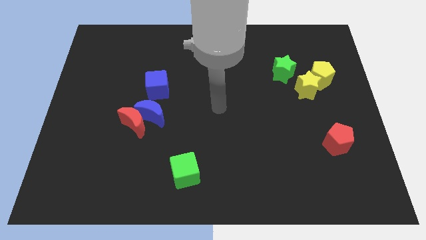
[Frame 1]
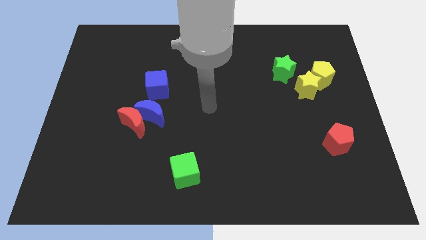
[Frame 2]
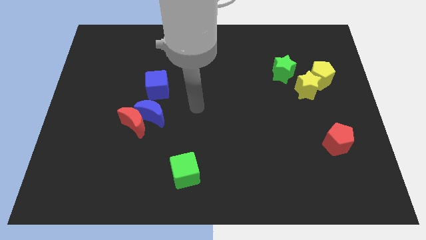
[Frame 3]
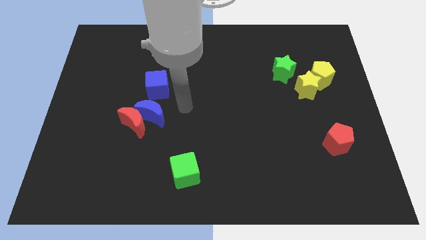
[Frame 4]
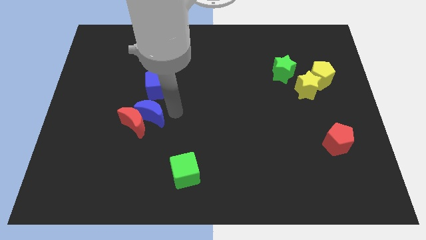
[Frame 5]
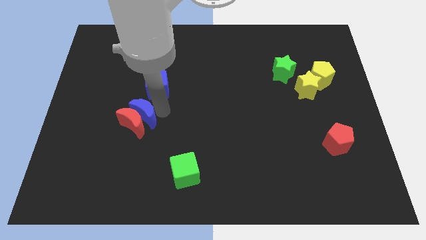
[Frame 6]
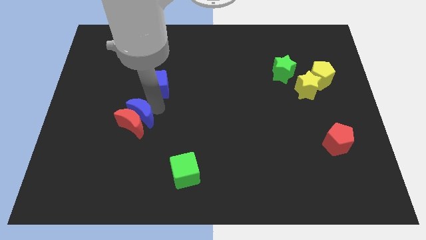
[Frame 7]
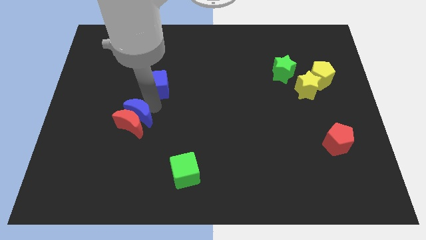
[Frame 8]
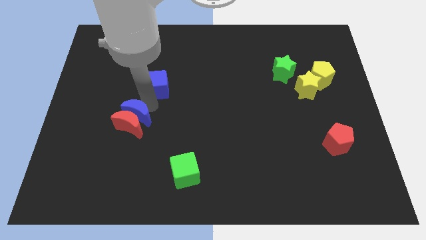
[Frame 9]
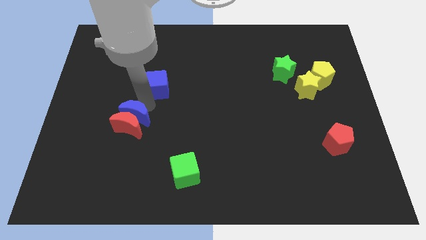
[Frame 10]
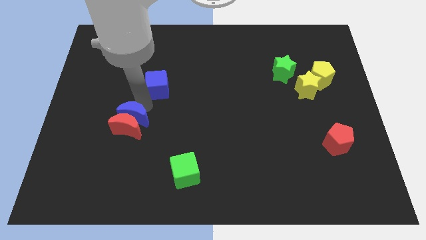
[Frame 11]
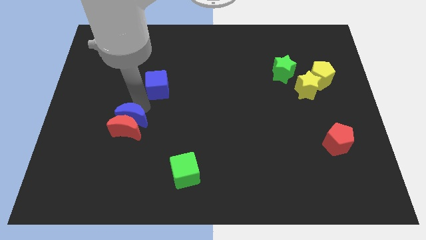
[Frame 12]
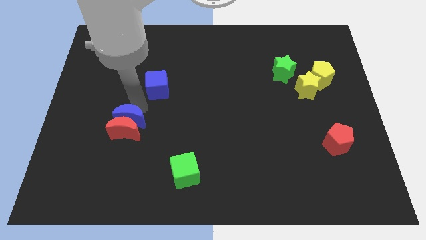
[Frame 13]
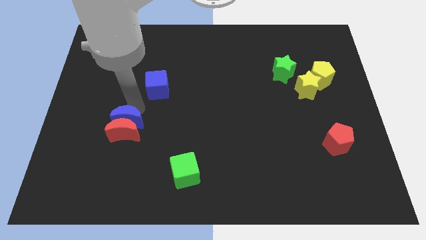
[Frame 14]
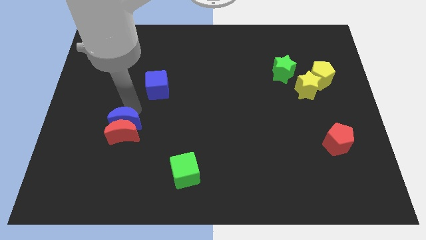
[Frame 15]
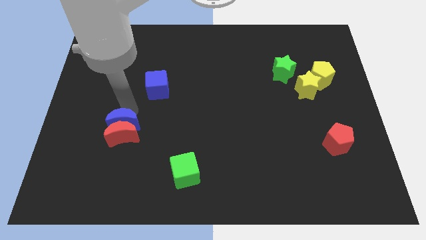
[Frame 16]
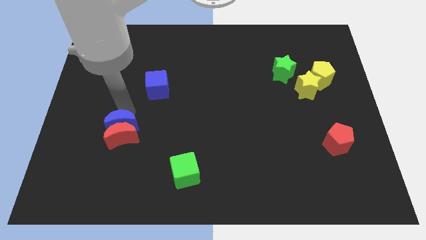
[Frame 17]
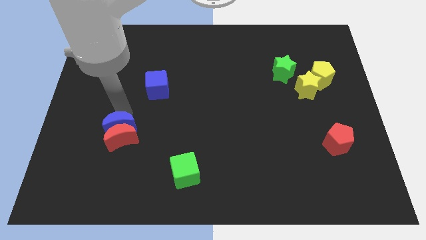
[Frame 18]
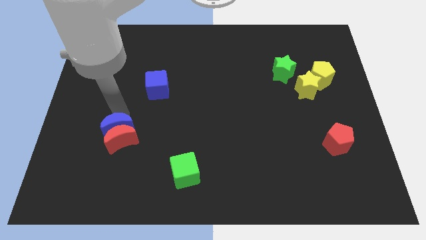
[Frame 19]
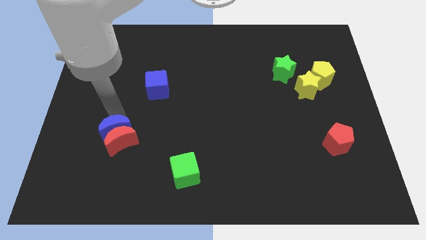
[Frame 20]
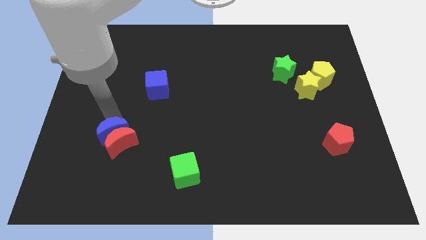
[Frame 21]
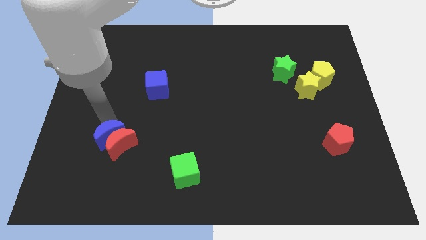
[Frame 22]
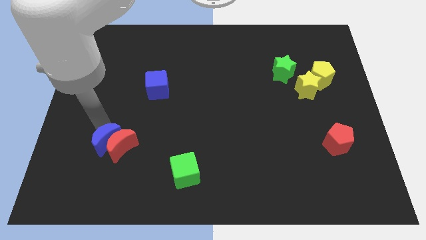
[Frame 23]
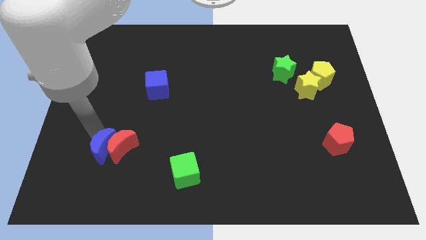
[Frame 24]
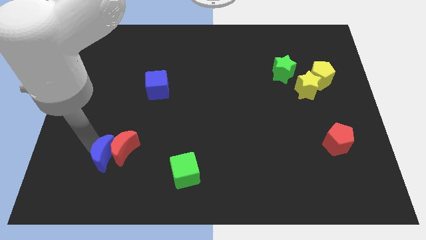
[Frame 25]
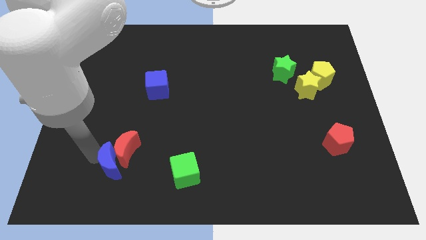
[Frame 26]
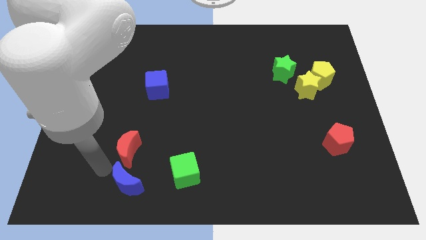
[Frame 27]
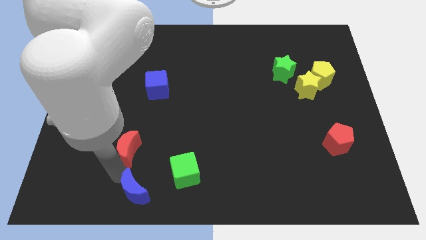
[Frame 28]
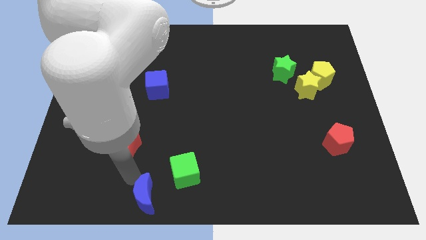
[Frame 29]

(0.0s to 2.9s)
move the red moon away from the blue moon

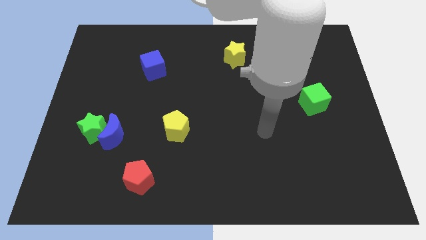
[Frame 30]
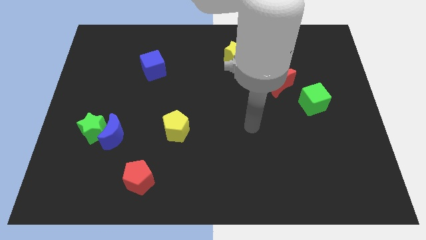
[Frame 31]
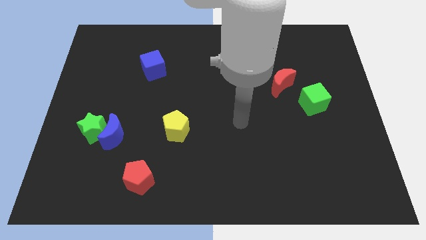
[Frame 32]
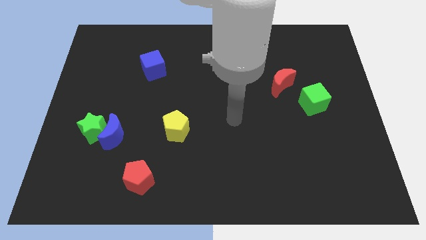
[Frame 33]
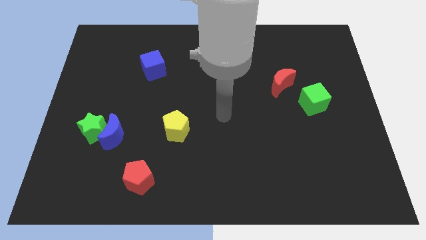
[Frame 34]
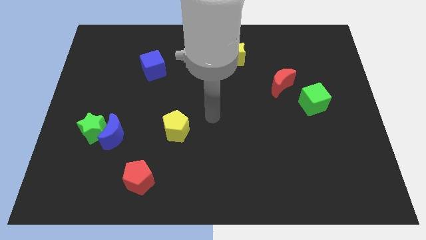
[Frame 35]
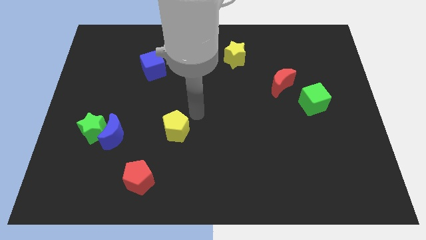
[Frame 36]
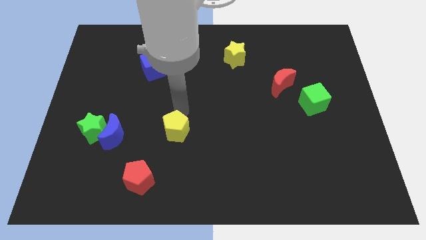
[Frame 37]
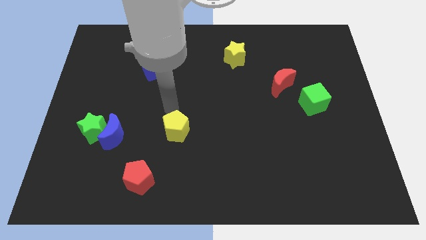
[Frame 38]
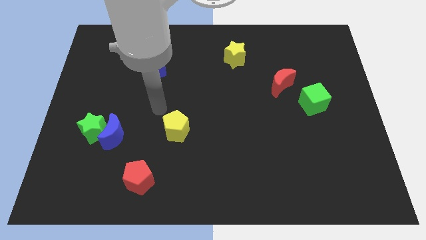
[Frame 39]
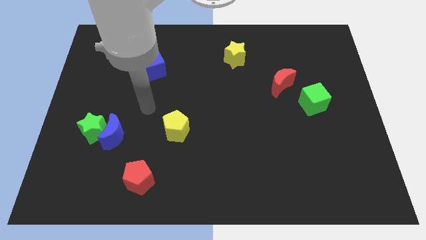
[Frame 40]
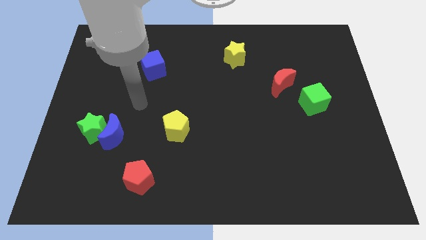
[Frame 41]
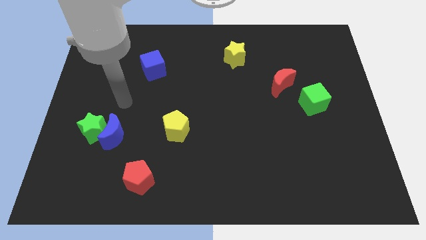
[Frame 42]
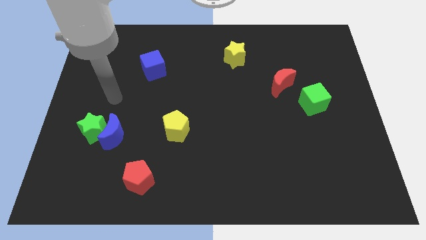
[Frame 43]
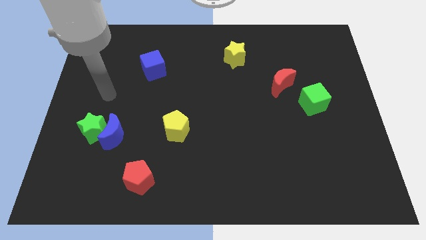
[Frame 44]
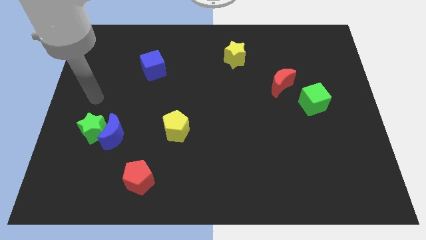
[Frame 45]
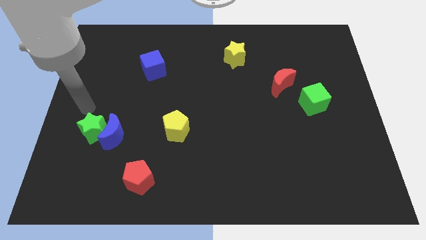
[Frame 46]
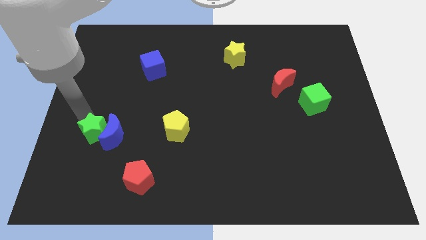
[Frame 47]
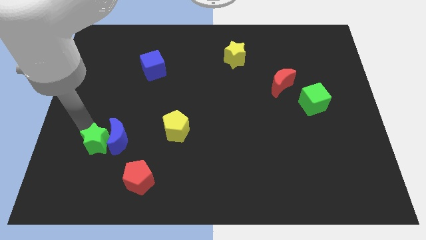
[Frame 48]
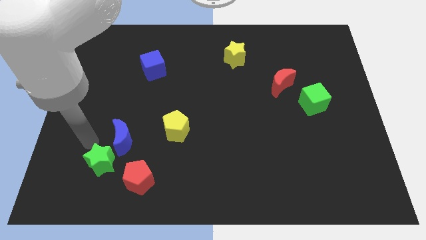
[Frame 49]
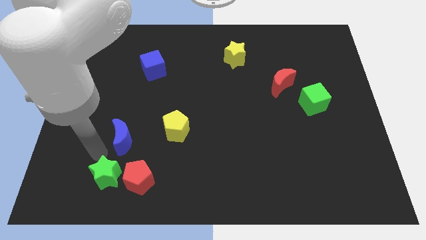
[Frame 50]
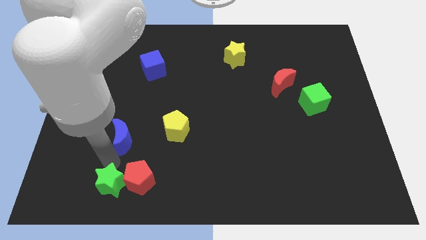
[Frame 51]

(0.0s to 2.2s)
move the blue moon away from the green star

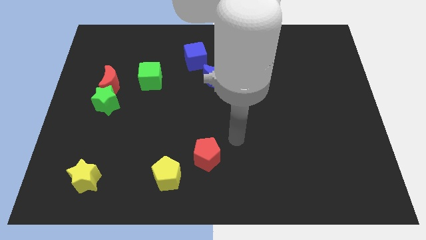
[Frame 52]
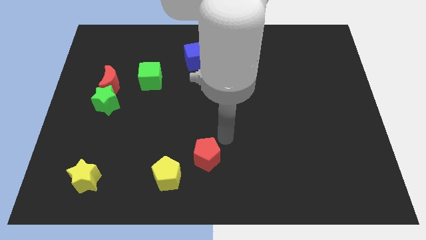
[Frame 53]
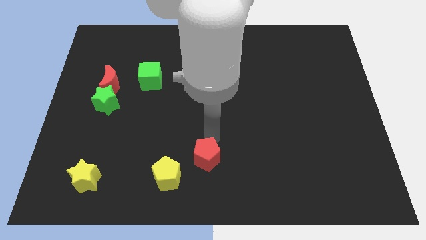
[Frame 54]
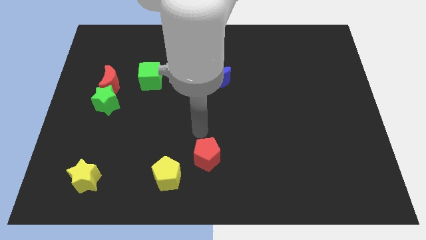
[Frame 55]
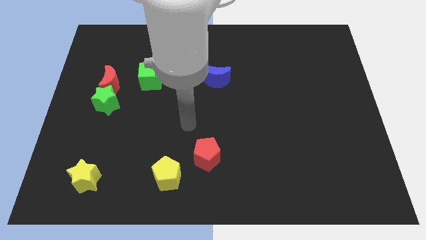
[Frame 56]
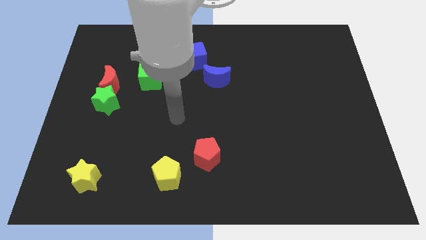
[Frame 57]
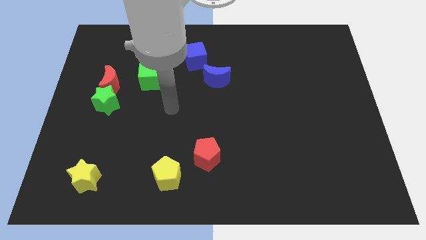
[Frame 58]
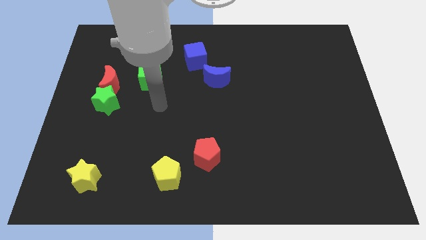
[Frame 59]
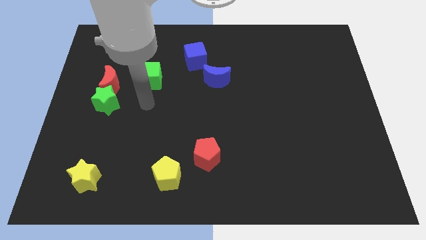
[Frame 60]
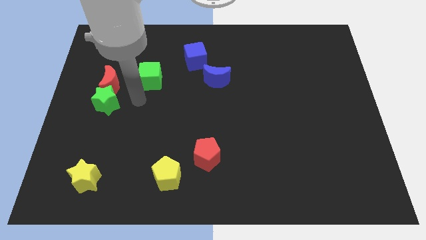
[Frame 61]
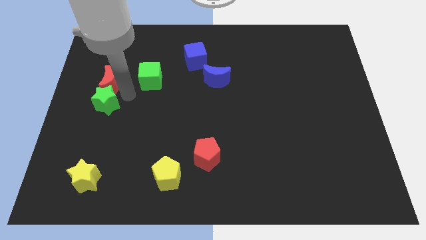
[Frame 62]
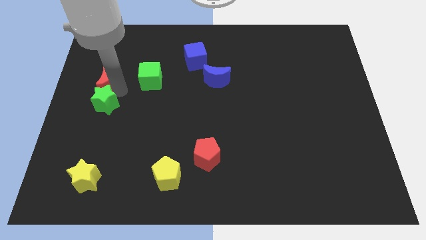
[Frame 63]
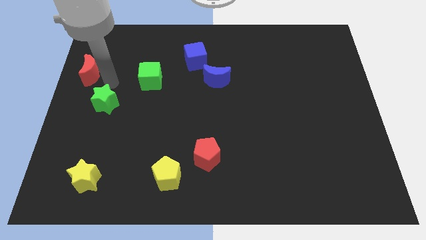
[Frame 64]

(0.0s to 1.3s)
move the green star away from the red moon

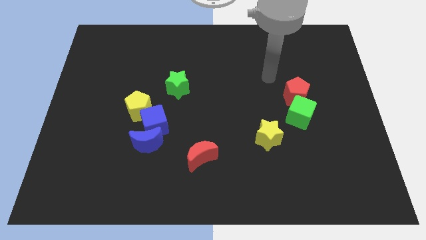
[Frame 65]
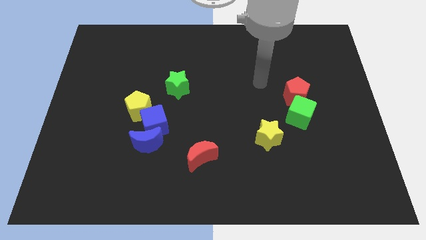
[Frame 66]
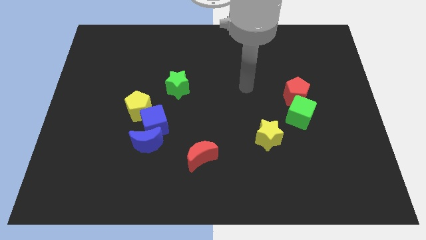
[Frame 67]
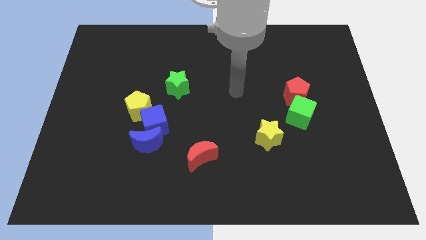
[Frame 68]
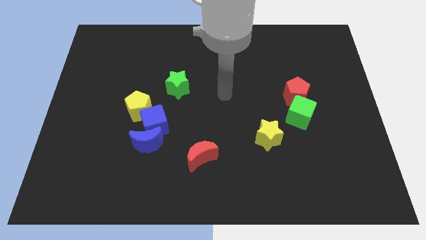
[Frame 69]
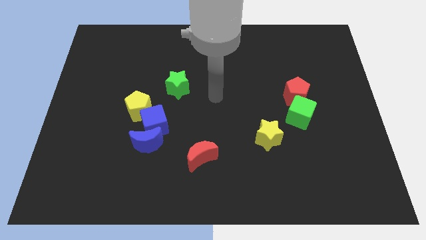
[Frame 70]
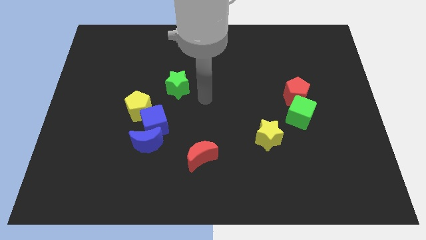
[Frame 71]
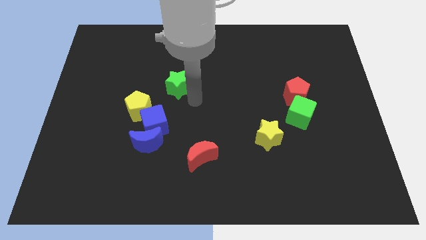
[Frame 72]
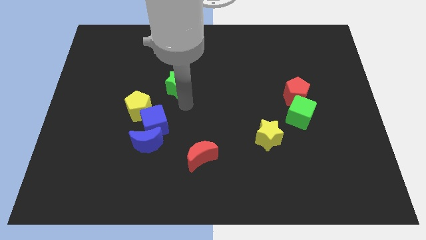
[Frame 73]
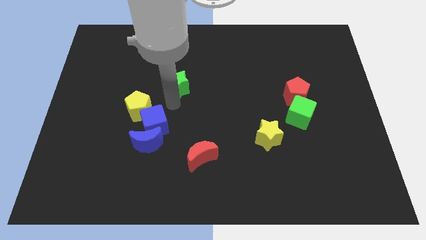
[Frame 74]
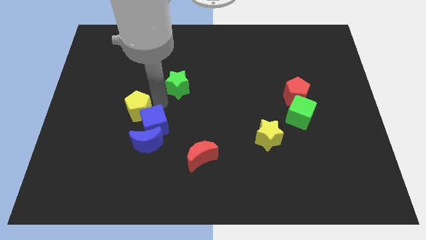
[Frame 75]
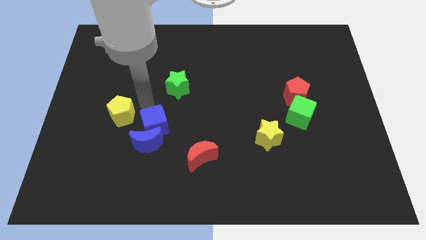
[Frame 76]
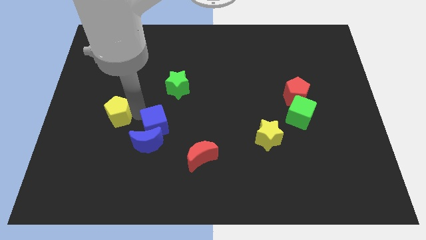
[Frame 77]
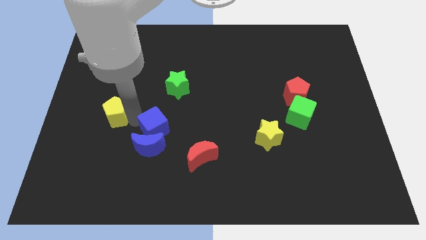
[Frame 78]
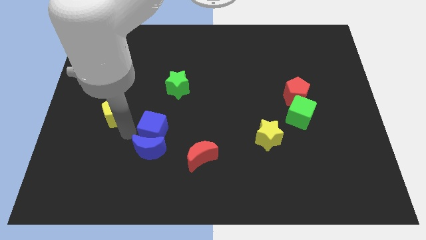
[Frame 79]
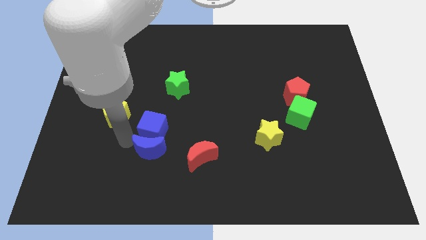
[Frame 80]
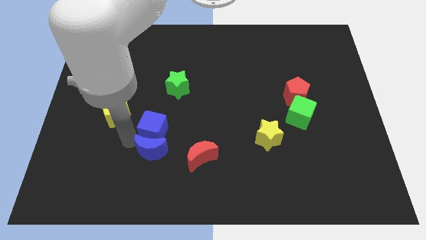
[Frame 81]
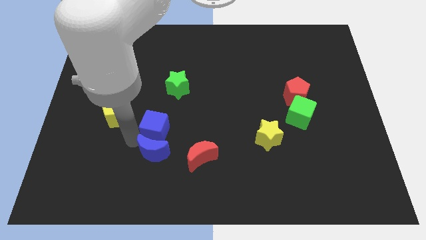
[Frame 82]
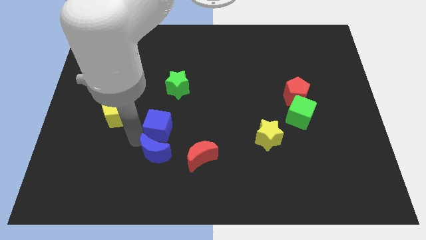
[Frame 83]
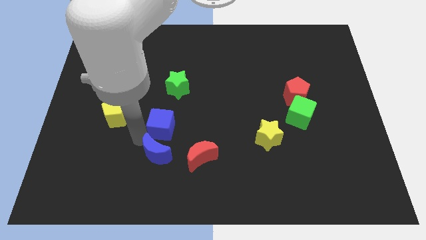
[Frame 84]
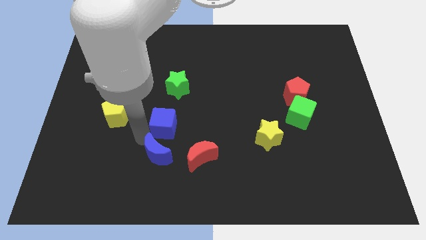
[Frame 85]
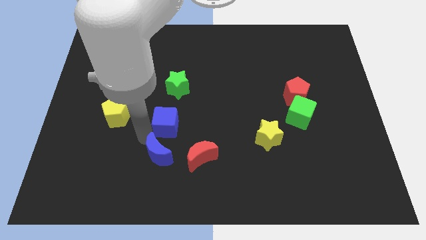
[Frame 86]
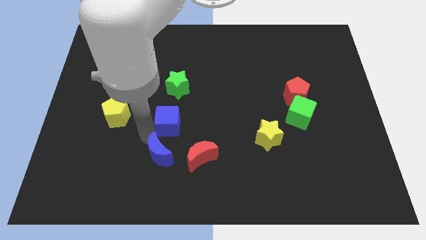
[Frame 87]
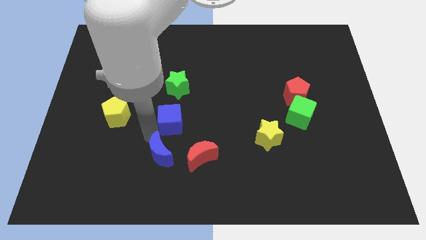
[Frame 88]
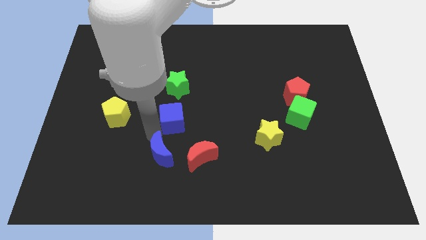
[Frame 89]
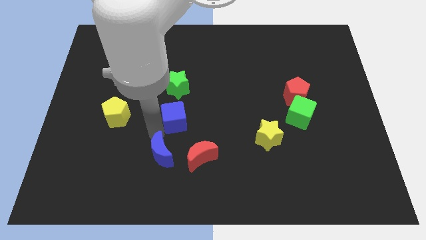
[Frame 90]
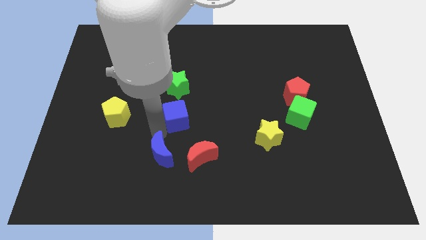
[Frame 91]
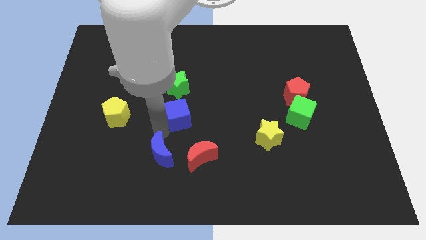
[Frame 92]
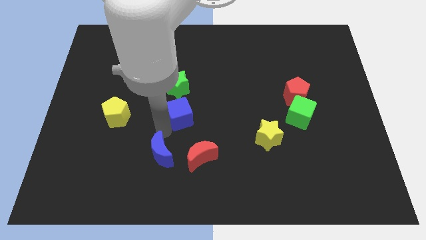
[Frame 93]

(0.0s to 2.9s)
separate the blue cube from the blue moon and yellow pentagon
